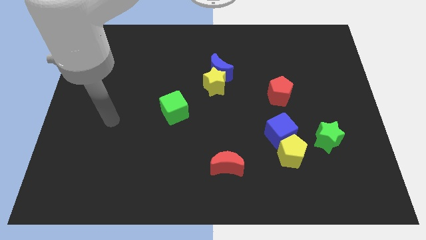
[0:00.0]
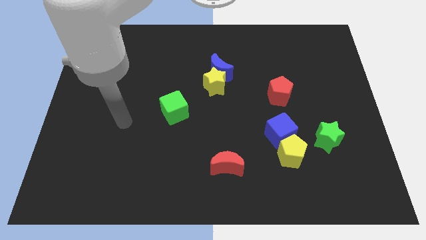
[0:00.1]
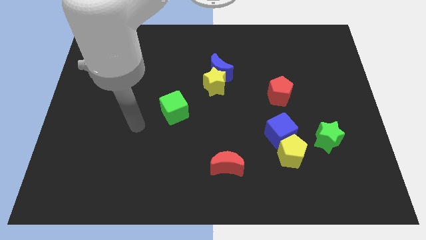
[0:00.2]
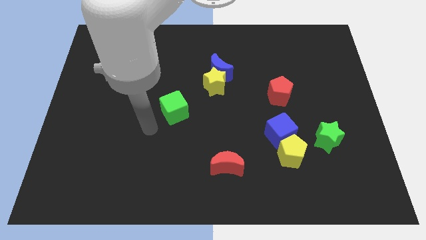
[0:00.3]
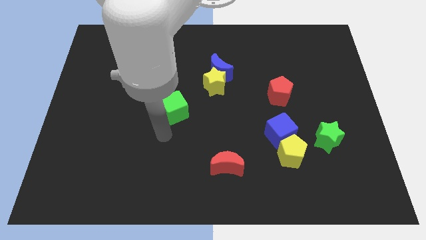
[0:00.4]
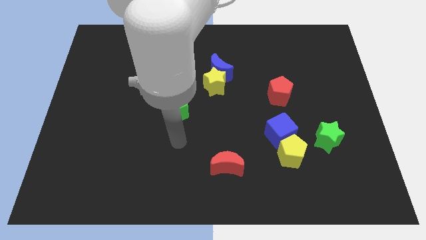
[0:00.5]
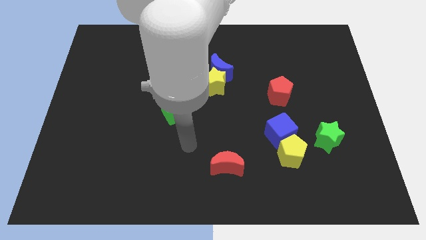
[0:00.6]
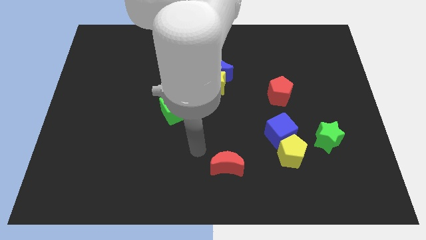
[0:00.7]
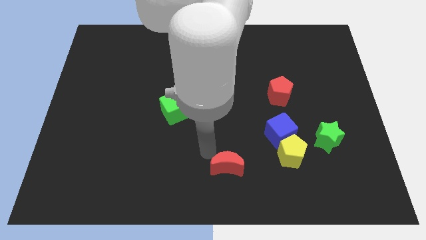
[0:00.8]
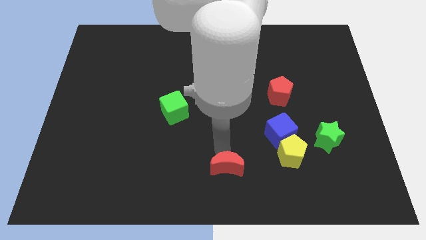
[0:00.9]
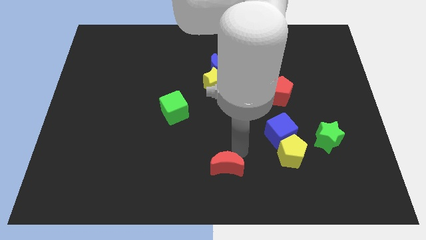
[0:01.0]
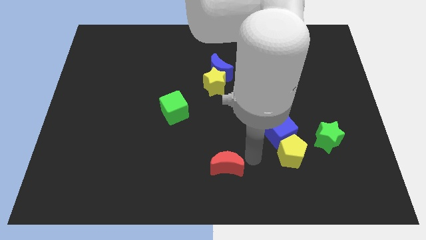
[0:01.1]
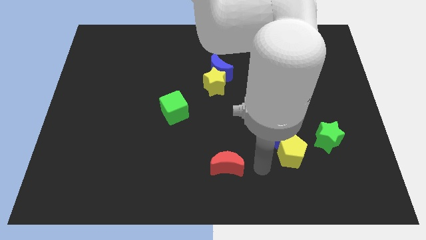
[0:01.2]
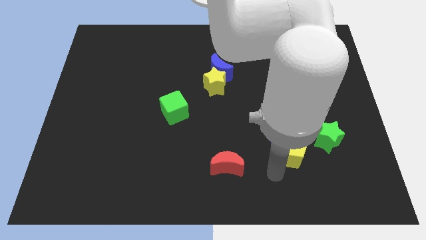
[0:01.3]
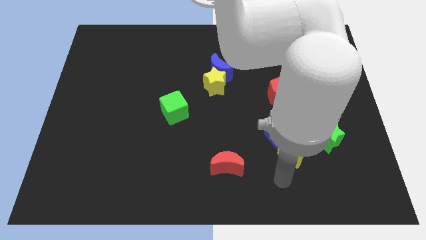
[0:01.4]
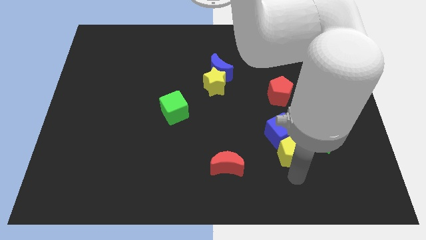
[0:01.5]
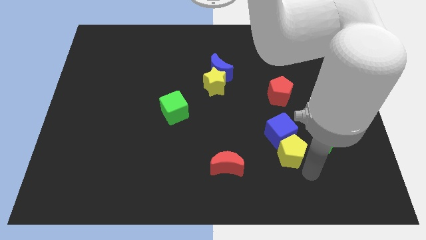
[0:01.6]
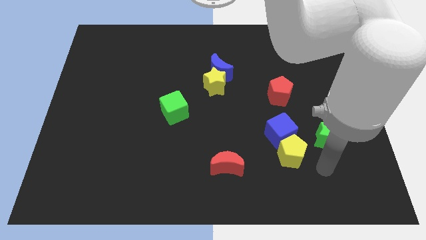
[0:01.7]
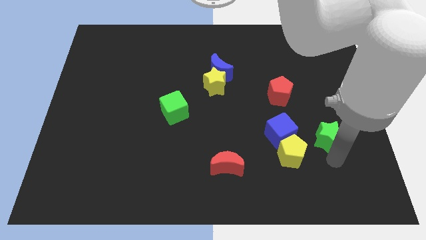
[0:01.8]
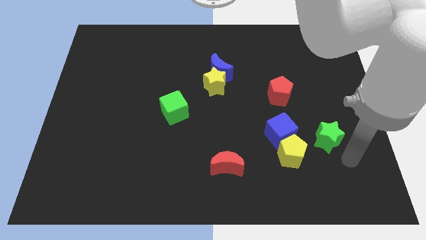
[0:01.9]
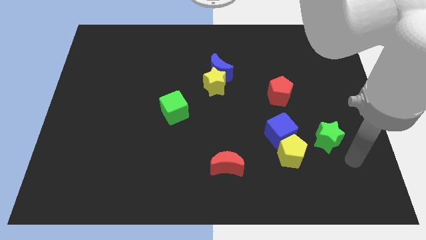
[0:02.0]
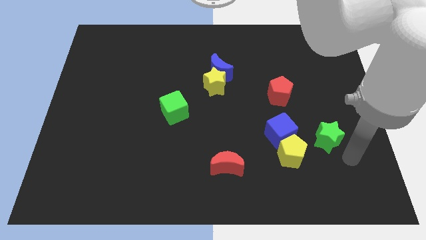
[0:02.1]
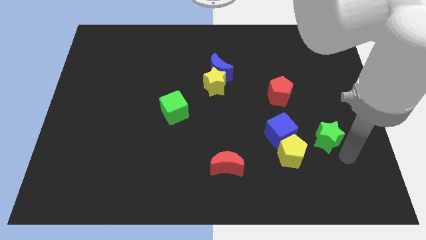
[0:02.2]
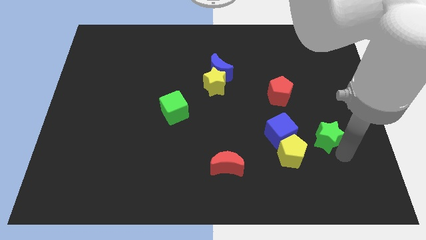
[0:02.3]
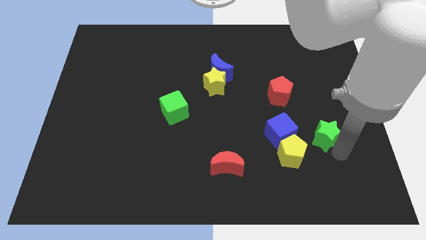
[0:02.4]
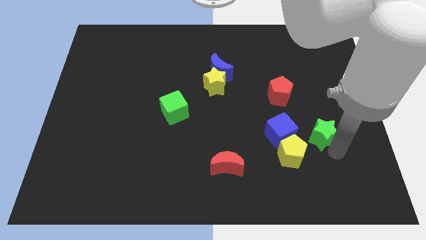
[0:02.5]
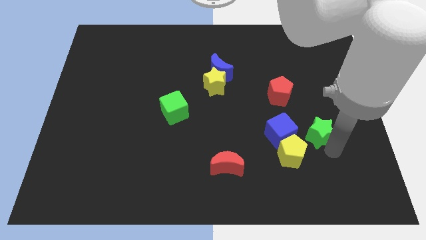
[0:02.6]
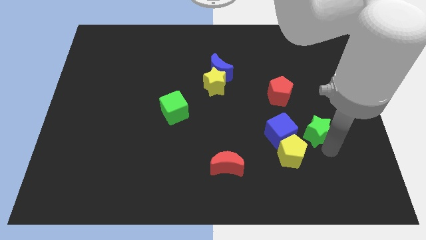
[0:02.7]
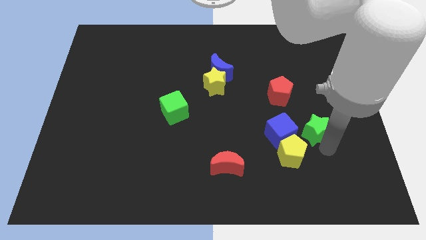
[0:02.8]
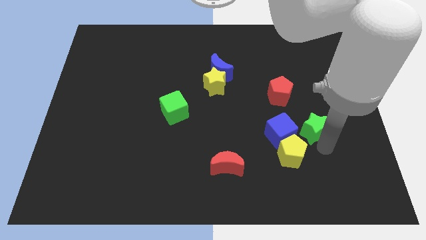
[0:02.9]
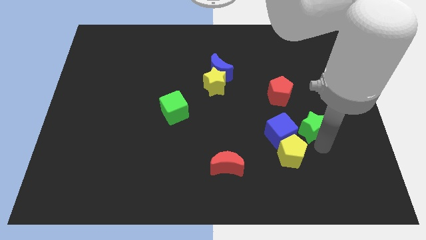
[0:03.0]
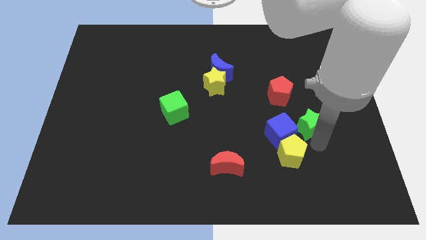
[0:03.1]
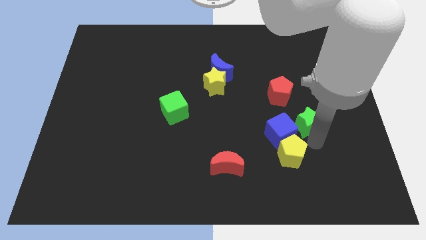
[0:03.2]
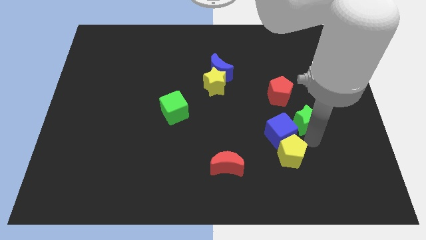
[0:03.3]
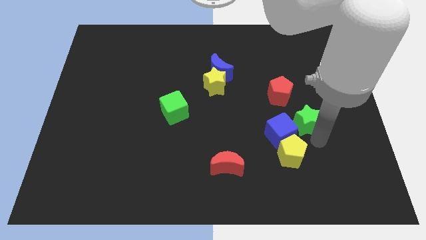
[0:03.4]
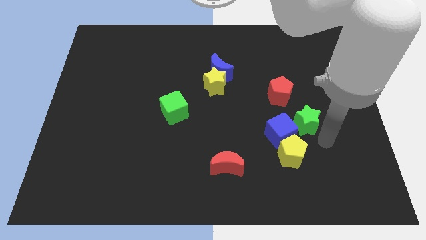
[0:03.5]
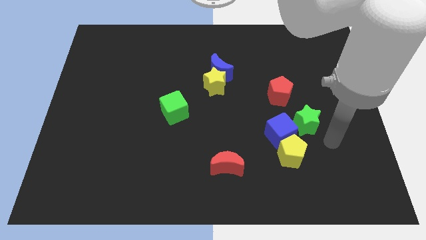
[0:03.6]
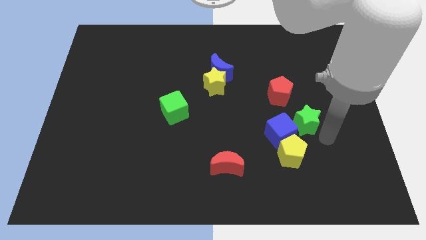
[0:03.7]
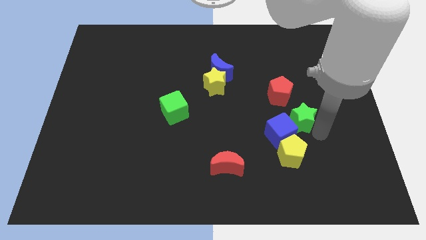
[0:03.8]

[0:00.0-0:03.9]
push the green star a little up and to the left

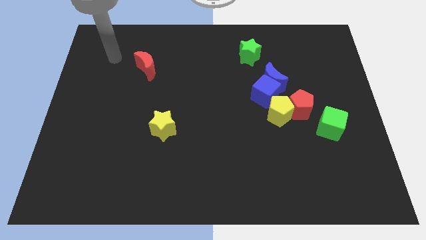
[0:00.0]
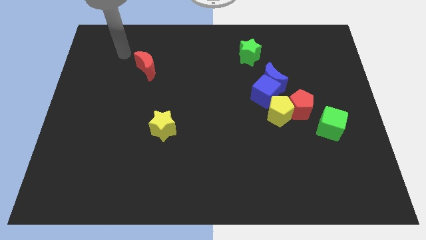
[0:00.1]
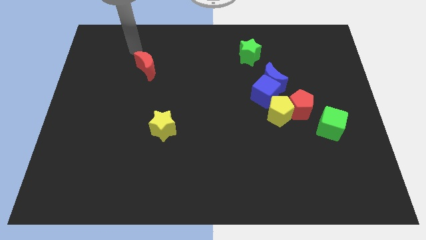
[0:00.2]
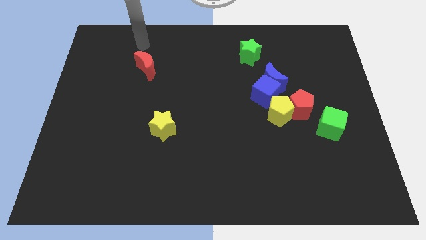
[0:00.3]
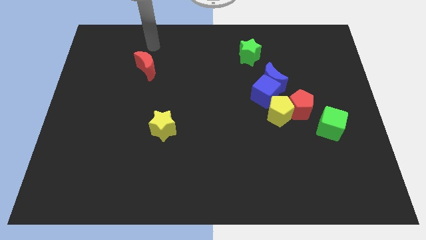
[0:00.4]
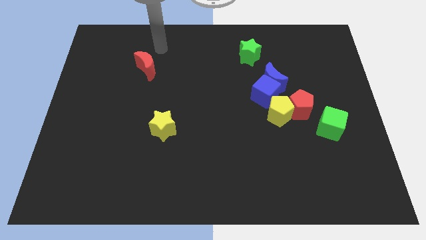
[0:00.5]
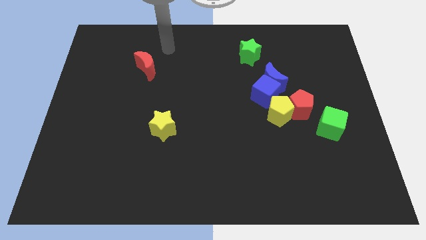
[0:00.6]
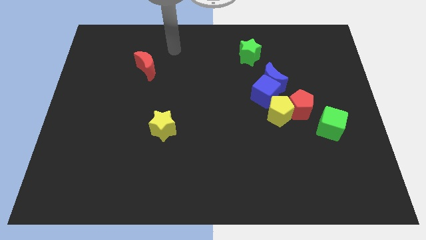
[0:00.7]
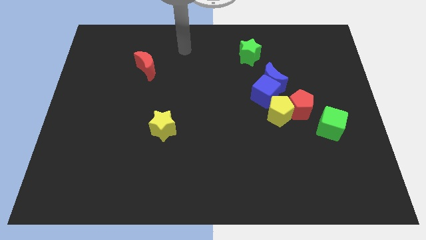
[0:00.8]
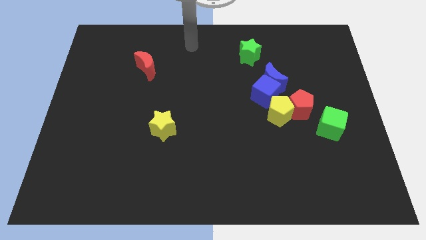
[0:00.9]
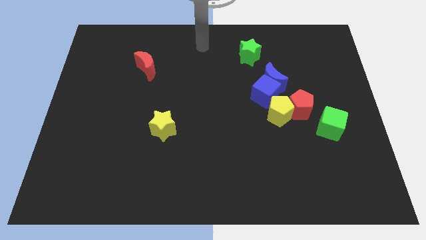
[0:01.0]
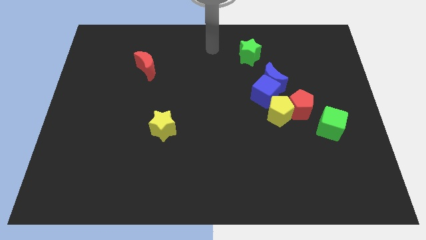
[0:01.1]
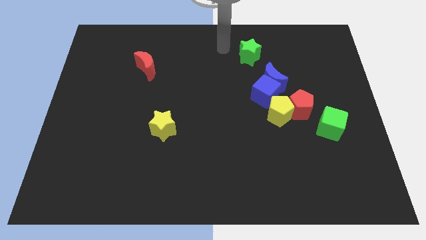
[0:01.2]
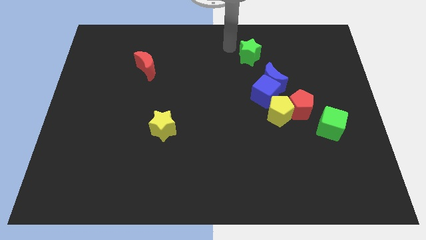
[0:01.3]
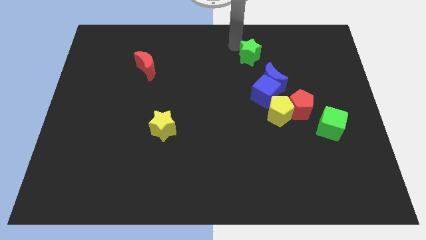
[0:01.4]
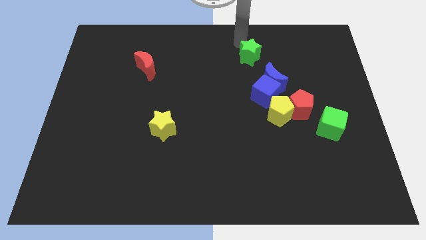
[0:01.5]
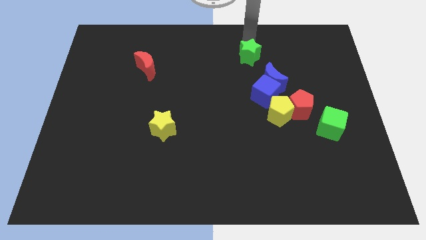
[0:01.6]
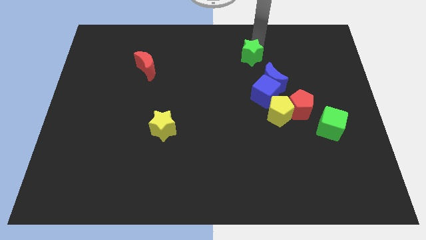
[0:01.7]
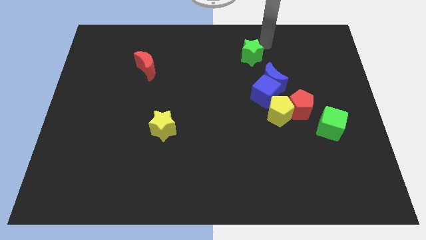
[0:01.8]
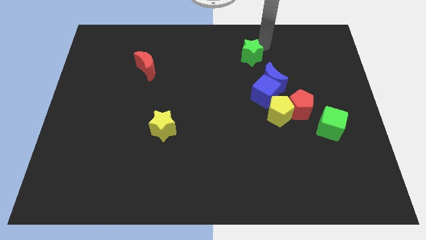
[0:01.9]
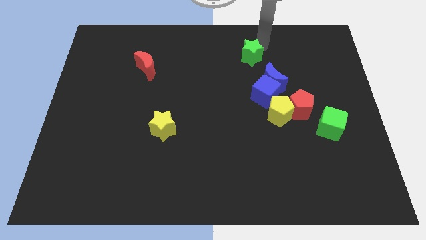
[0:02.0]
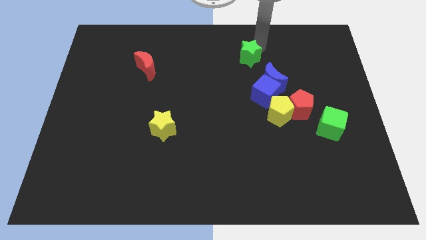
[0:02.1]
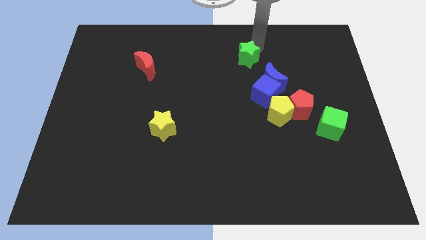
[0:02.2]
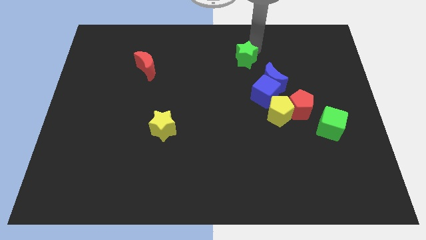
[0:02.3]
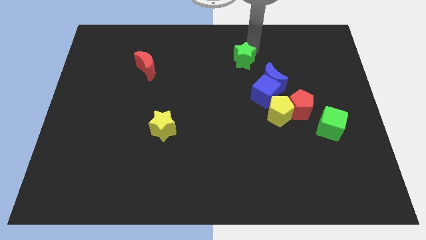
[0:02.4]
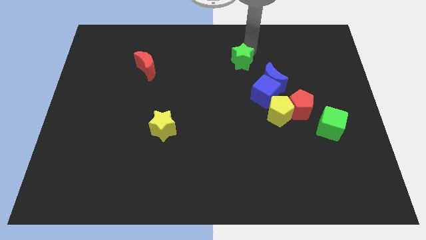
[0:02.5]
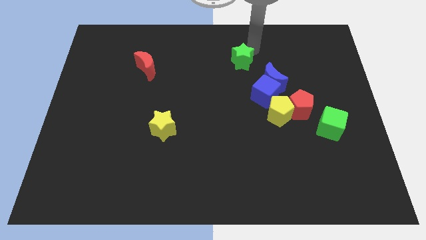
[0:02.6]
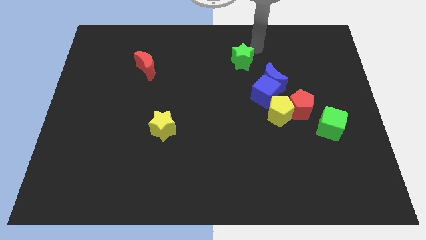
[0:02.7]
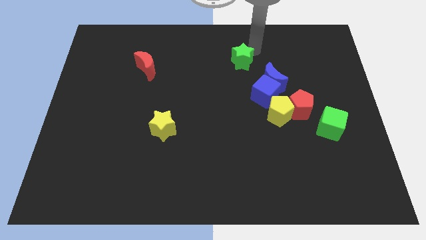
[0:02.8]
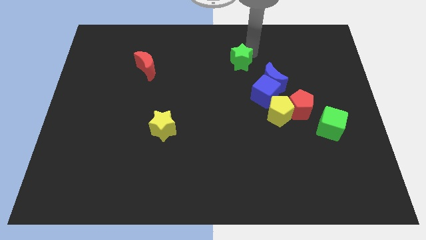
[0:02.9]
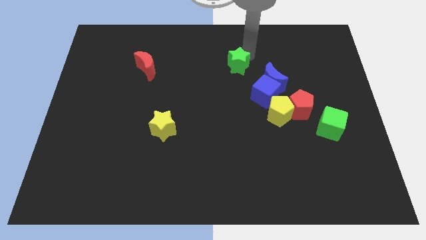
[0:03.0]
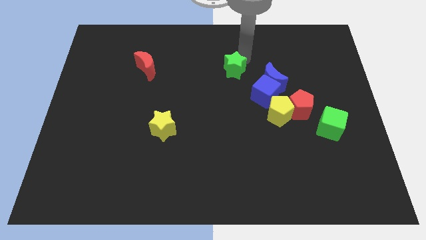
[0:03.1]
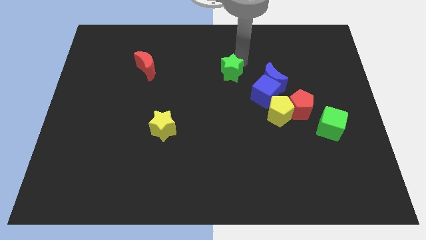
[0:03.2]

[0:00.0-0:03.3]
move the green star slightly downwards and then to the left

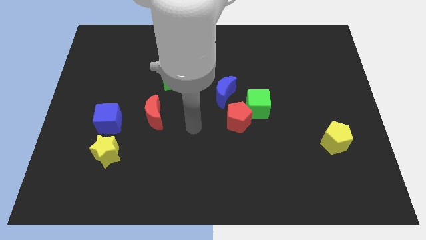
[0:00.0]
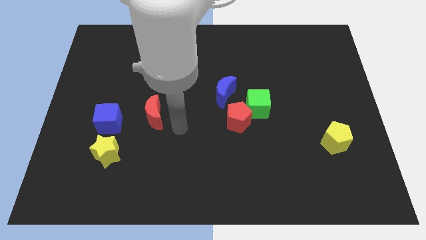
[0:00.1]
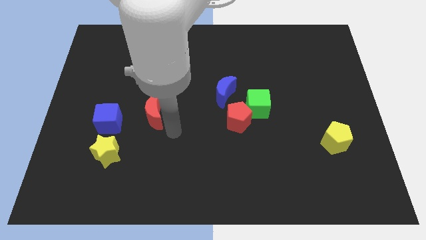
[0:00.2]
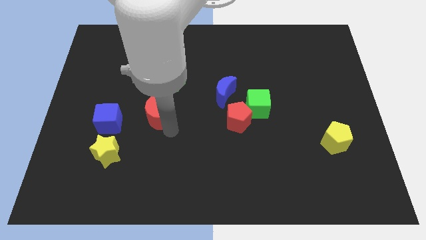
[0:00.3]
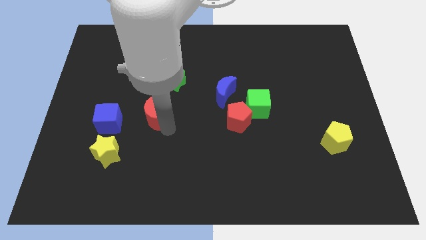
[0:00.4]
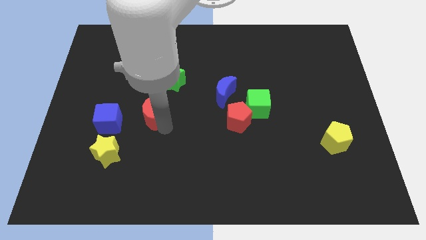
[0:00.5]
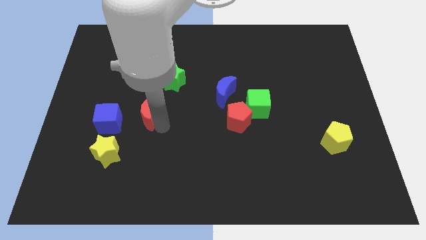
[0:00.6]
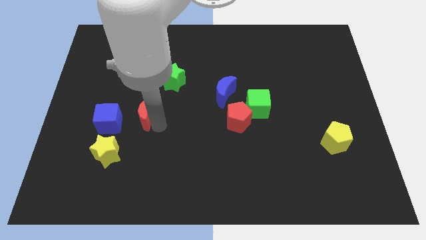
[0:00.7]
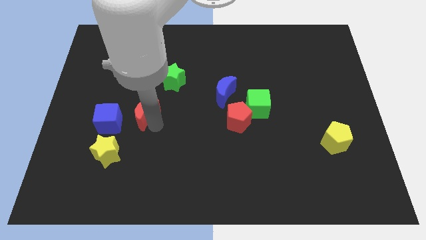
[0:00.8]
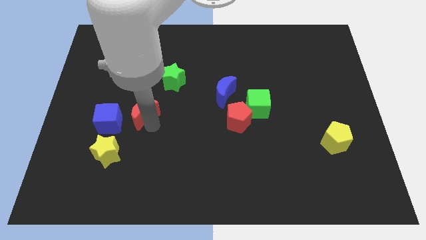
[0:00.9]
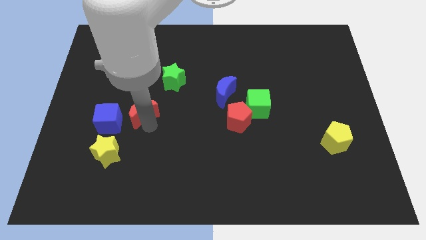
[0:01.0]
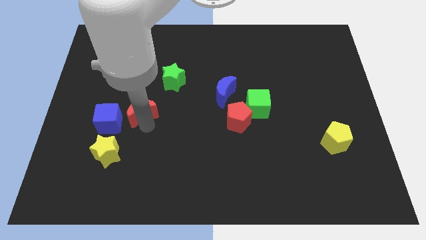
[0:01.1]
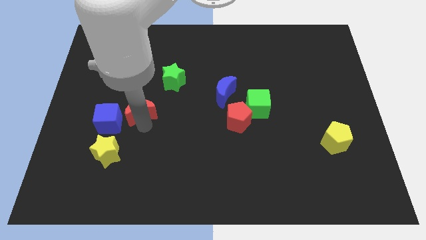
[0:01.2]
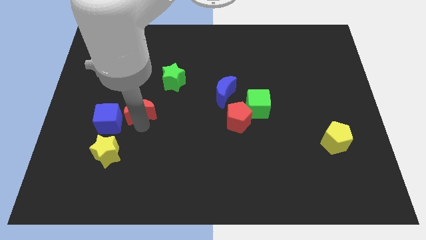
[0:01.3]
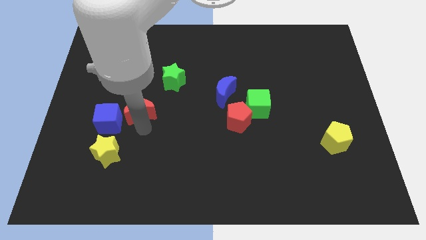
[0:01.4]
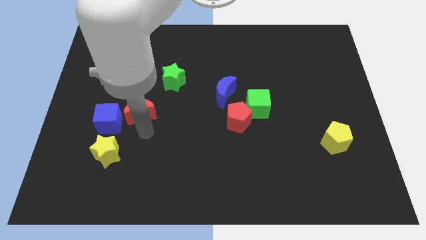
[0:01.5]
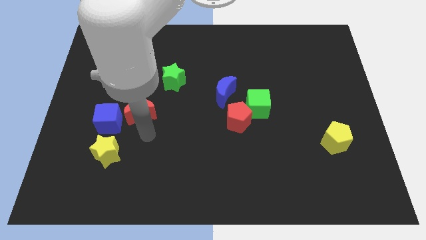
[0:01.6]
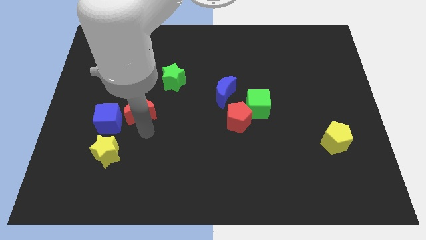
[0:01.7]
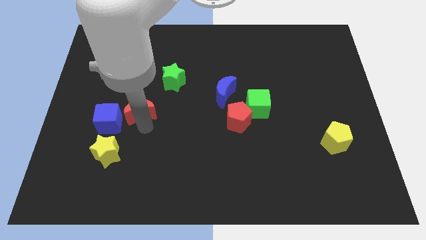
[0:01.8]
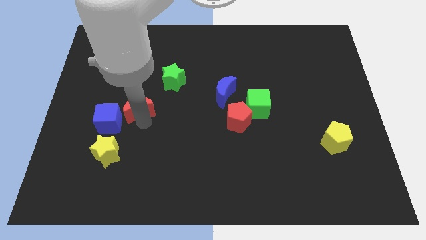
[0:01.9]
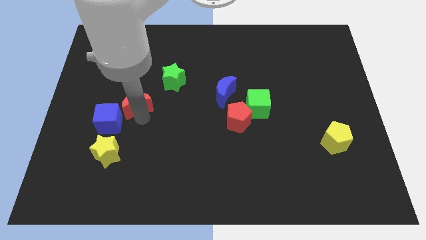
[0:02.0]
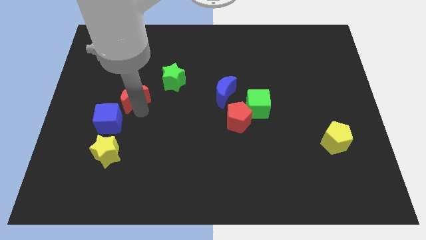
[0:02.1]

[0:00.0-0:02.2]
slightly move the red moon upwards and left diagonally
